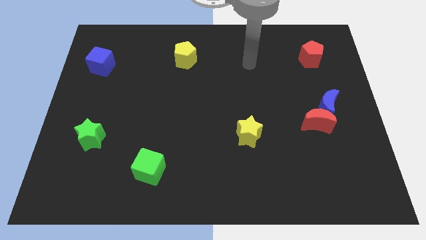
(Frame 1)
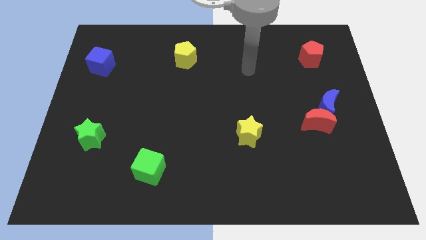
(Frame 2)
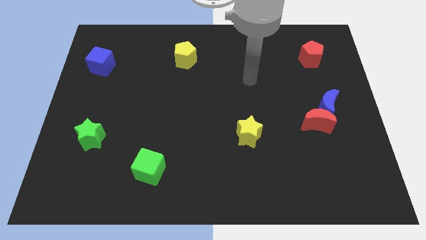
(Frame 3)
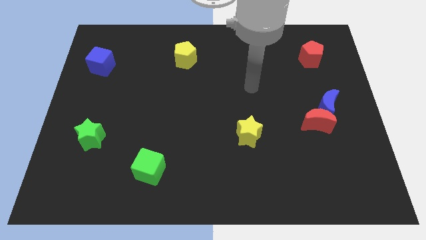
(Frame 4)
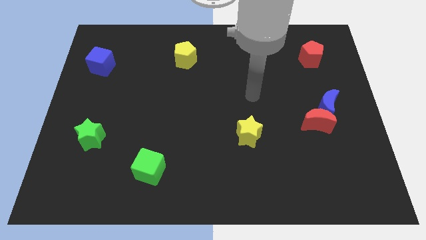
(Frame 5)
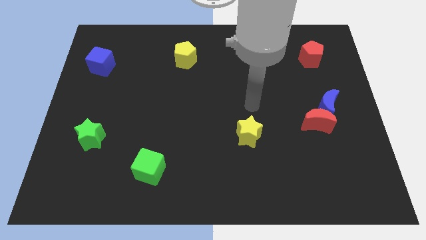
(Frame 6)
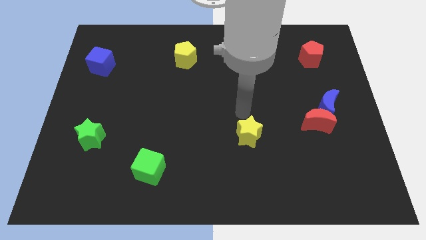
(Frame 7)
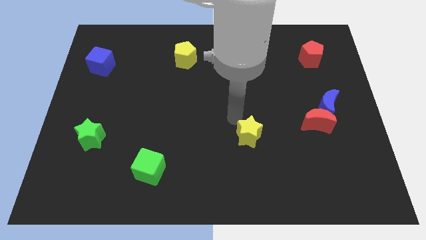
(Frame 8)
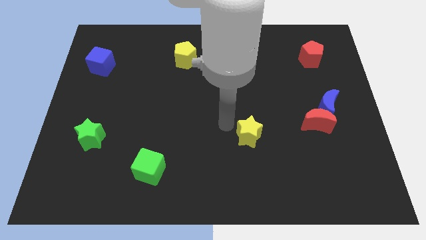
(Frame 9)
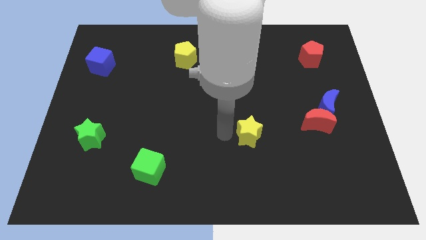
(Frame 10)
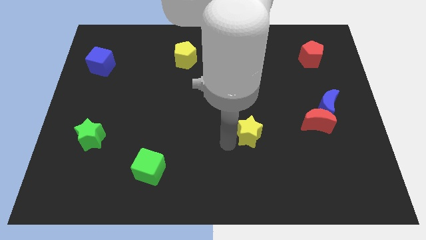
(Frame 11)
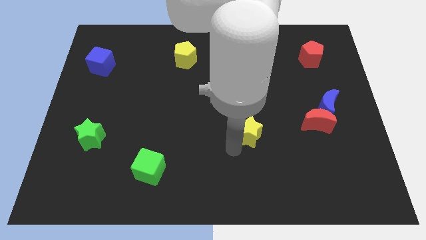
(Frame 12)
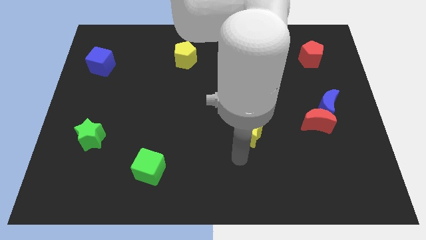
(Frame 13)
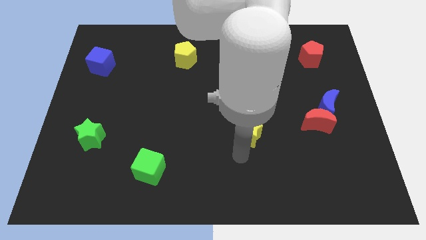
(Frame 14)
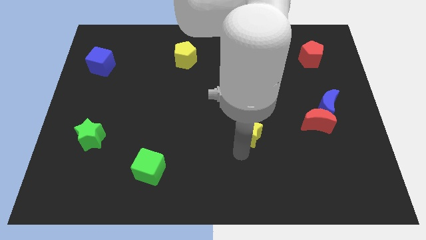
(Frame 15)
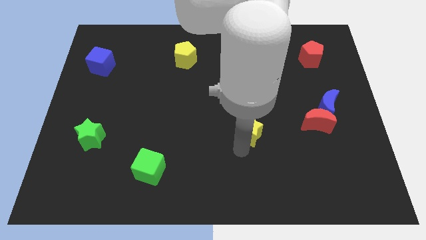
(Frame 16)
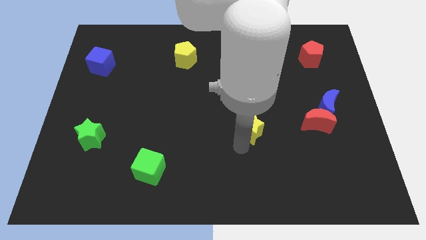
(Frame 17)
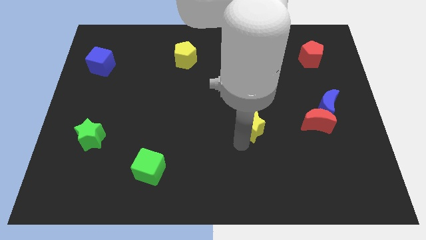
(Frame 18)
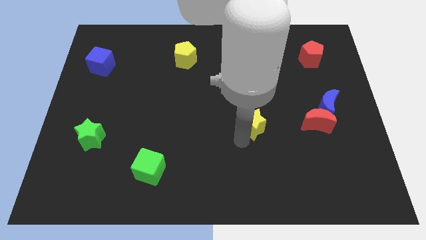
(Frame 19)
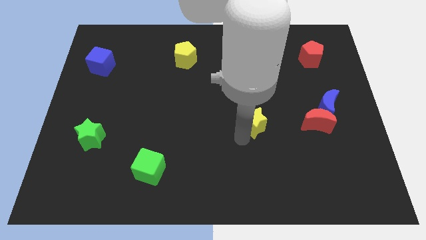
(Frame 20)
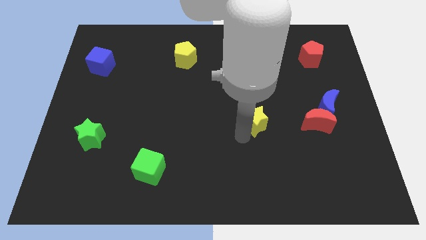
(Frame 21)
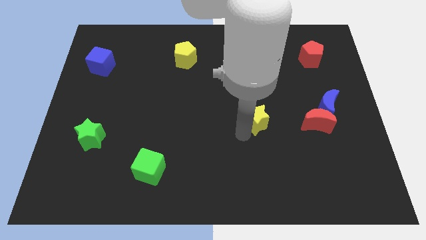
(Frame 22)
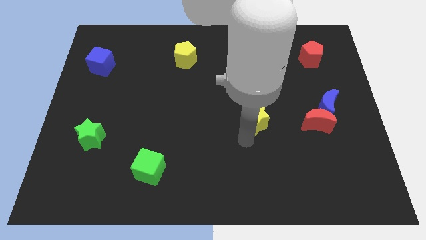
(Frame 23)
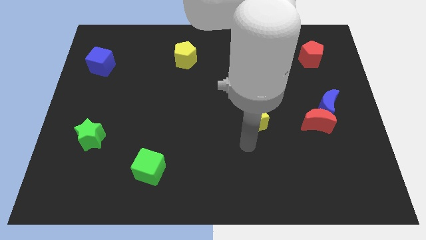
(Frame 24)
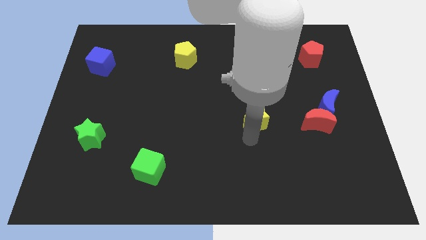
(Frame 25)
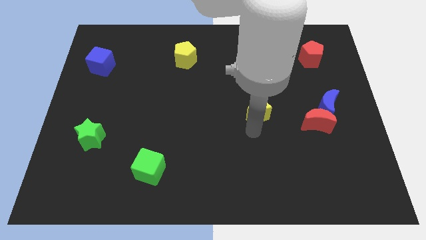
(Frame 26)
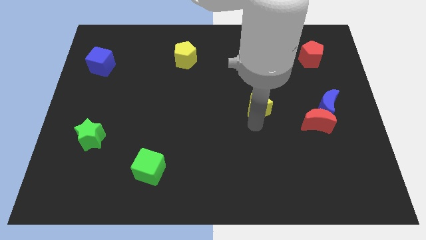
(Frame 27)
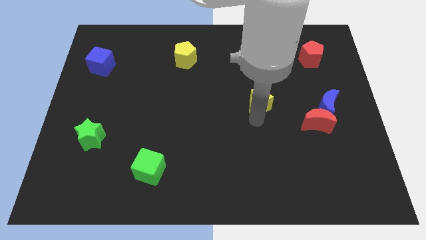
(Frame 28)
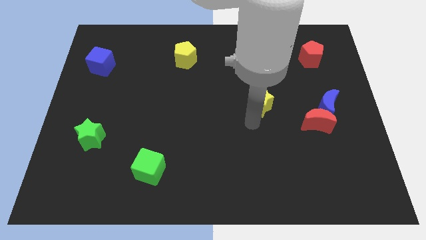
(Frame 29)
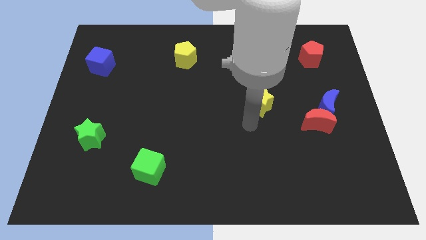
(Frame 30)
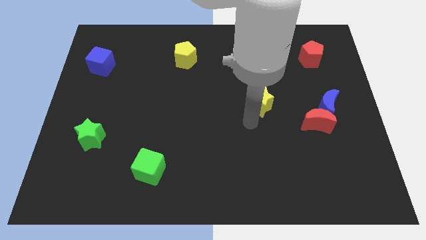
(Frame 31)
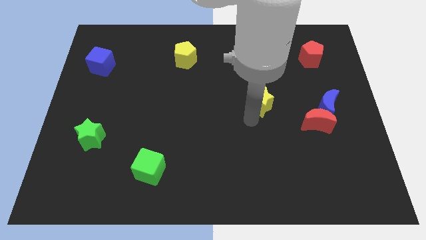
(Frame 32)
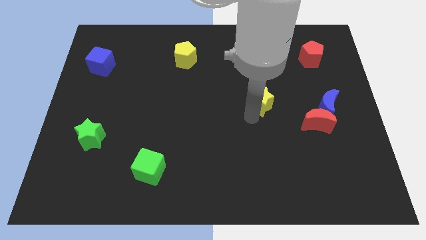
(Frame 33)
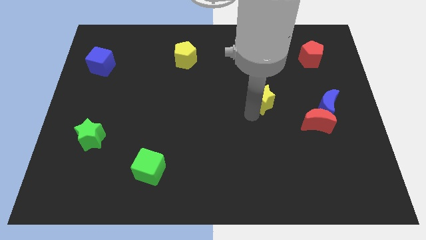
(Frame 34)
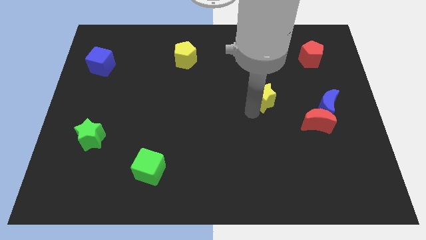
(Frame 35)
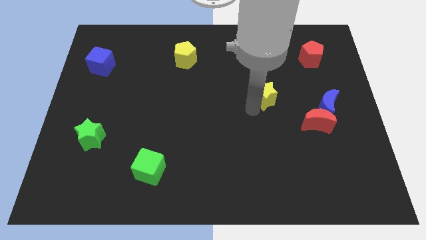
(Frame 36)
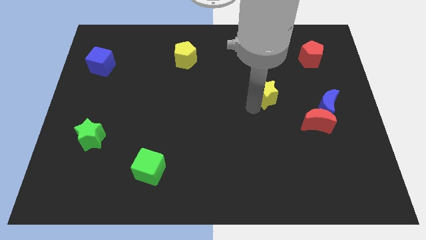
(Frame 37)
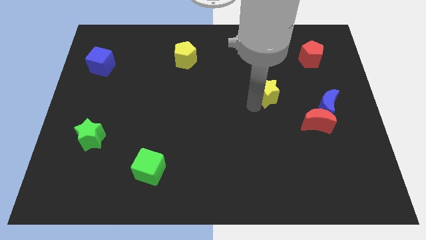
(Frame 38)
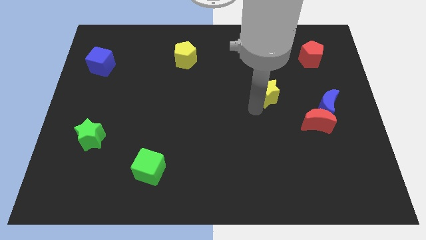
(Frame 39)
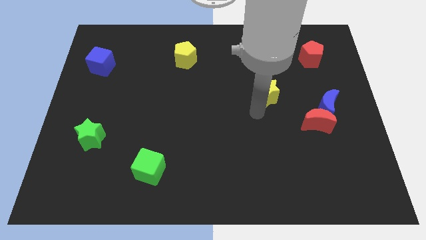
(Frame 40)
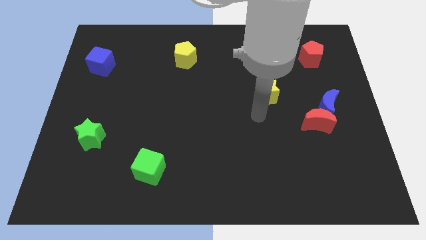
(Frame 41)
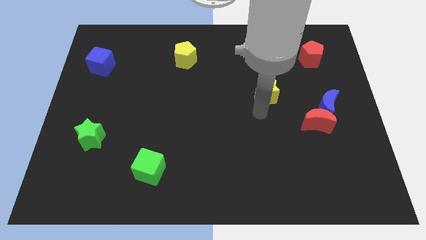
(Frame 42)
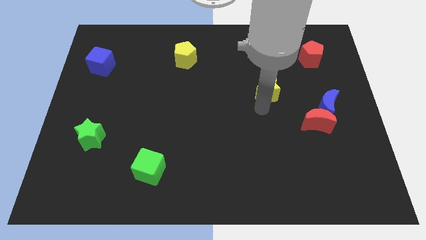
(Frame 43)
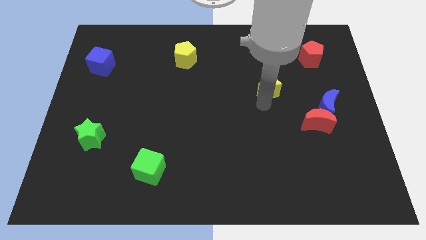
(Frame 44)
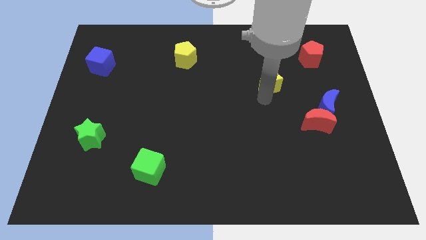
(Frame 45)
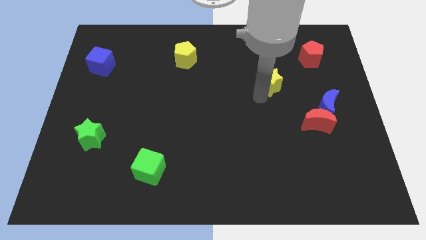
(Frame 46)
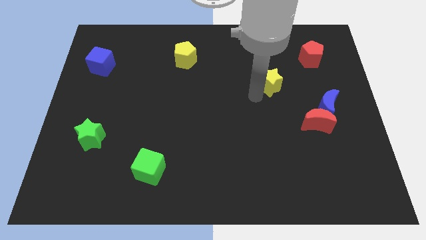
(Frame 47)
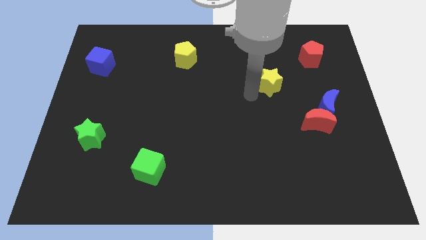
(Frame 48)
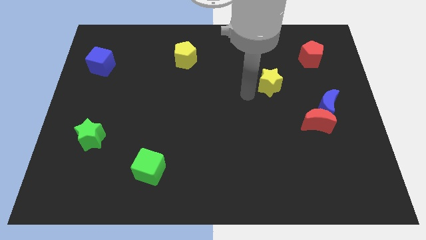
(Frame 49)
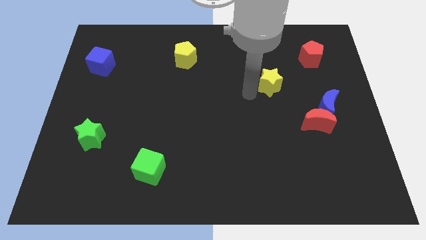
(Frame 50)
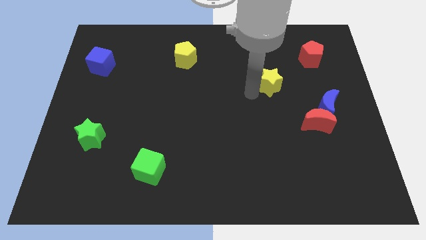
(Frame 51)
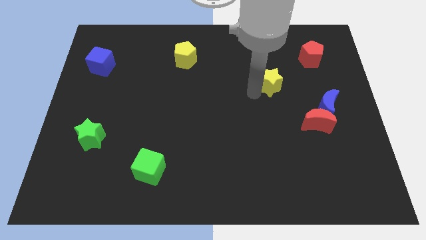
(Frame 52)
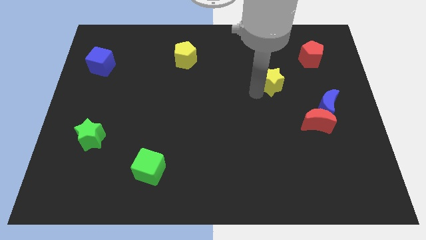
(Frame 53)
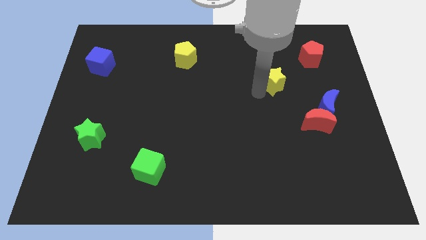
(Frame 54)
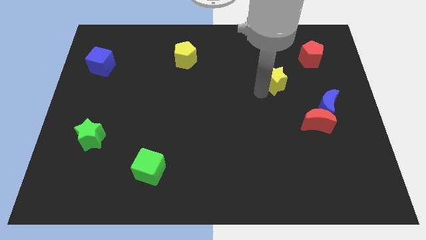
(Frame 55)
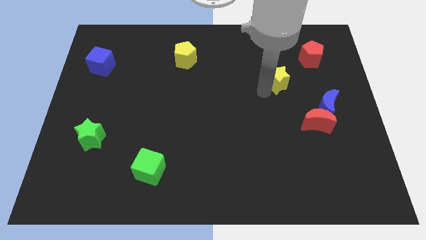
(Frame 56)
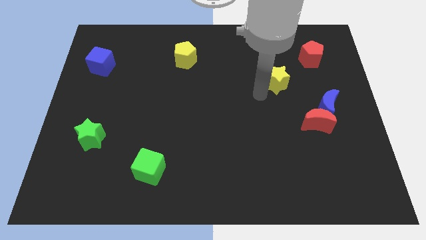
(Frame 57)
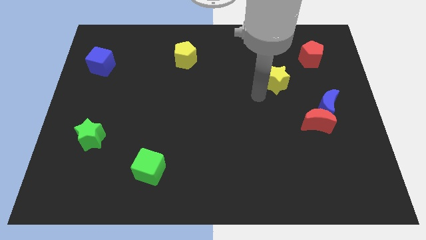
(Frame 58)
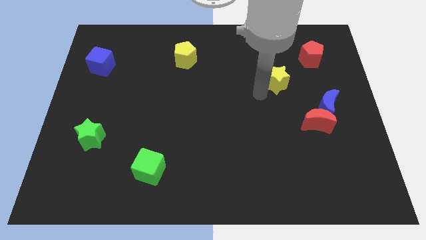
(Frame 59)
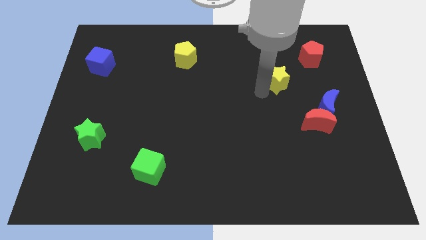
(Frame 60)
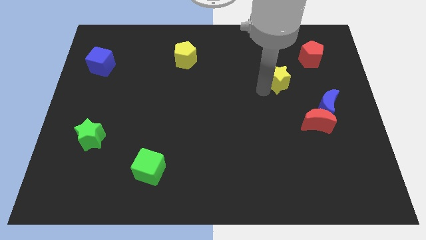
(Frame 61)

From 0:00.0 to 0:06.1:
move the yellow star to the bottom left side of the red pentagon

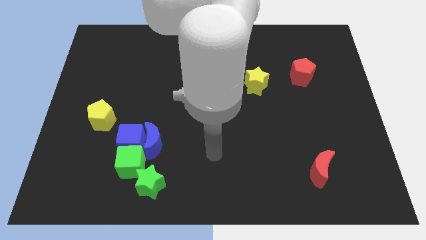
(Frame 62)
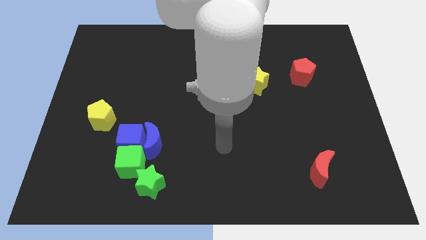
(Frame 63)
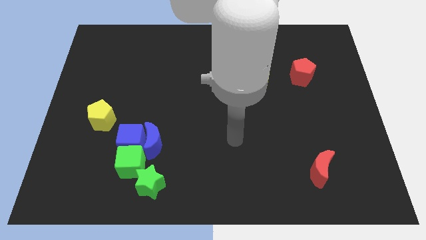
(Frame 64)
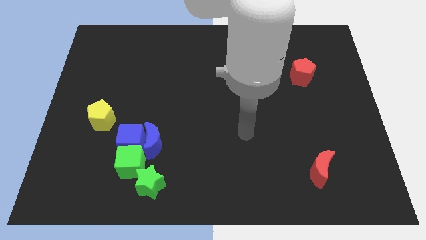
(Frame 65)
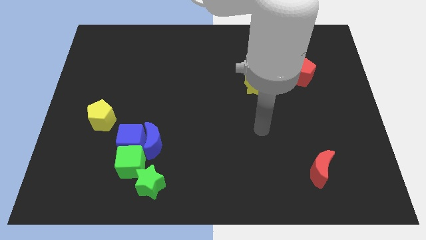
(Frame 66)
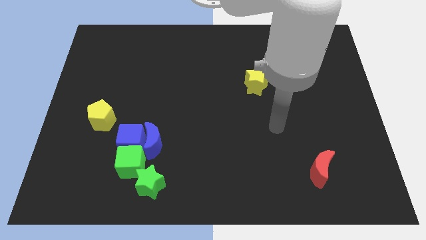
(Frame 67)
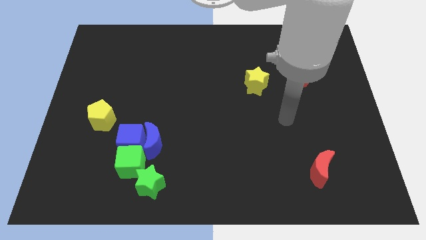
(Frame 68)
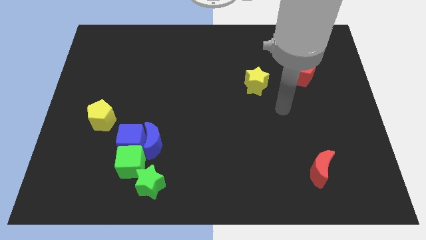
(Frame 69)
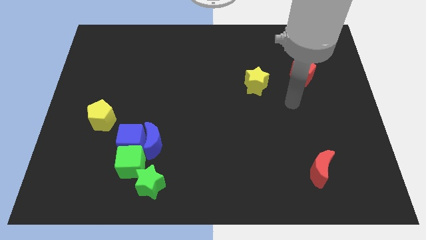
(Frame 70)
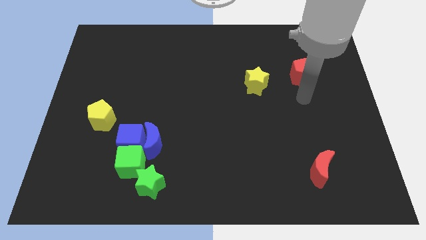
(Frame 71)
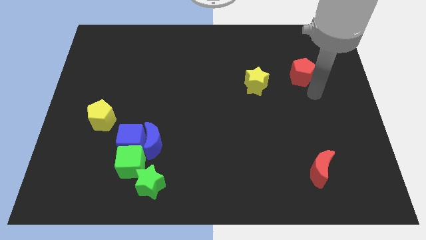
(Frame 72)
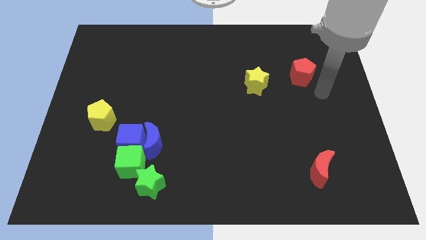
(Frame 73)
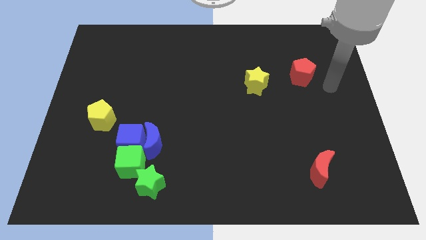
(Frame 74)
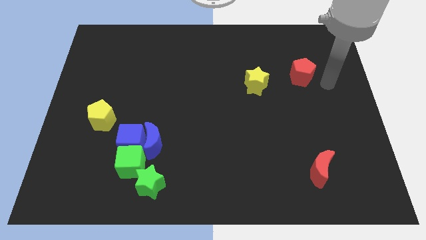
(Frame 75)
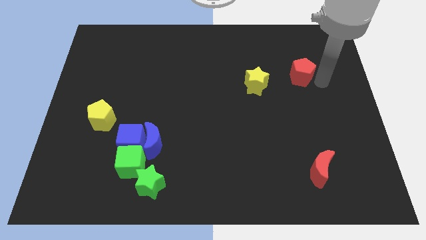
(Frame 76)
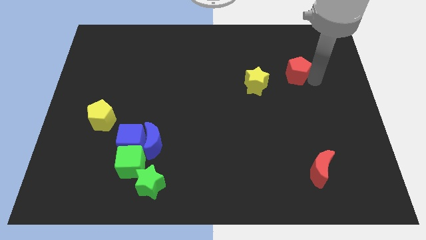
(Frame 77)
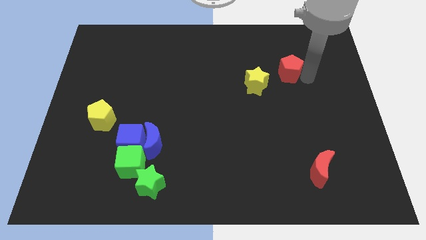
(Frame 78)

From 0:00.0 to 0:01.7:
slide the red pentagon to the top right of the yellow star
